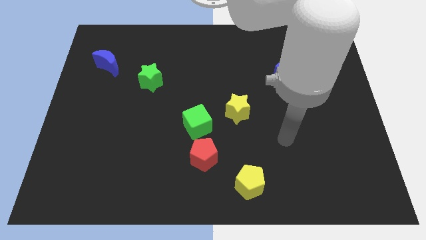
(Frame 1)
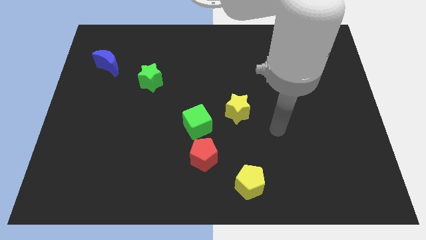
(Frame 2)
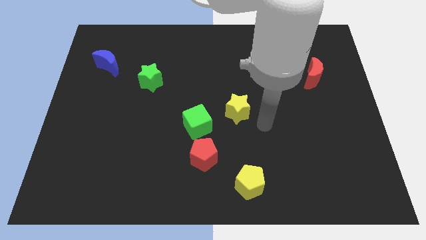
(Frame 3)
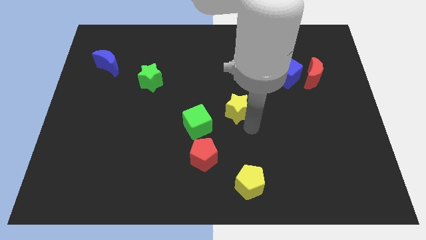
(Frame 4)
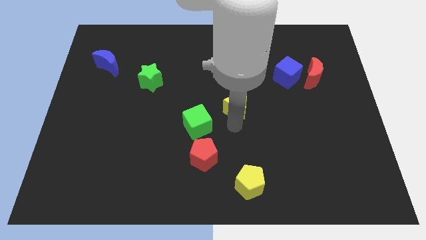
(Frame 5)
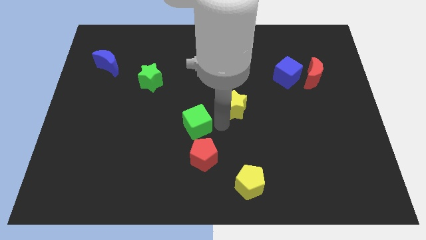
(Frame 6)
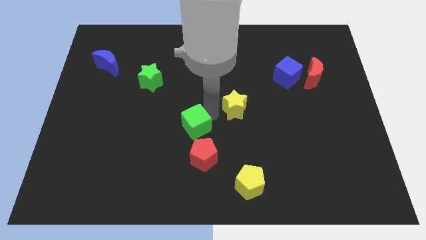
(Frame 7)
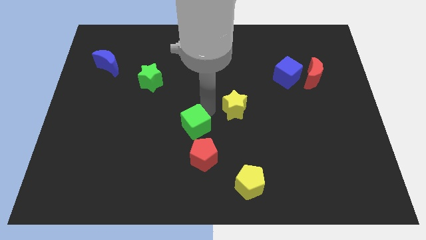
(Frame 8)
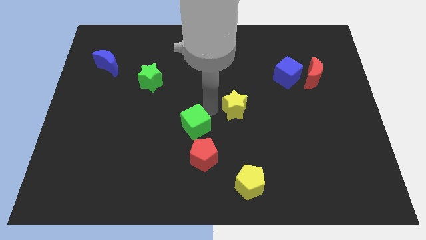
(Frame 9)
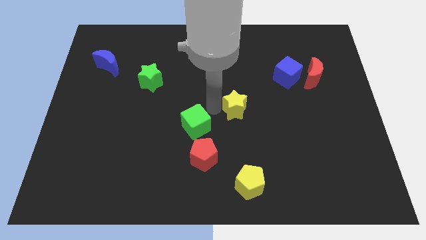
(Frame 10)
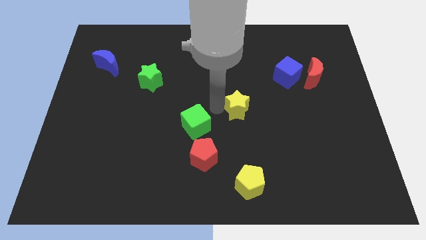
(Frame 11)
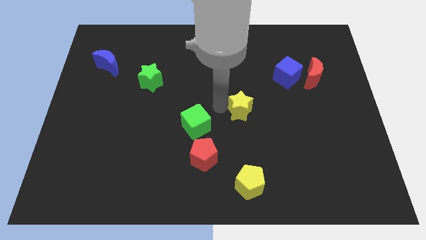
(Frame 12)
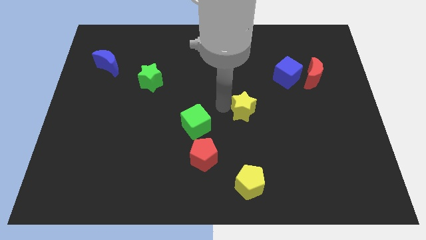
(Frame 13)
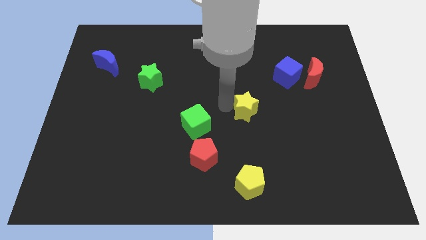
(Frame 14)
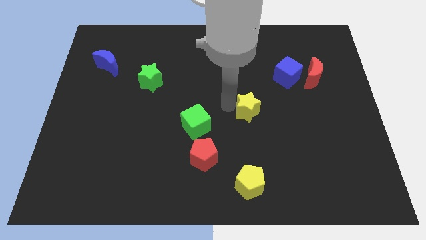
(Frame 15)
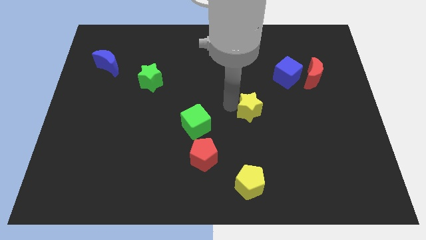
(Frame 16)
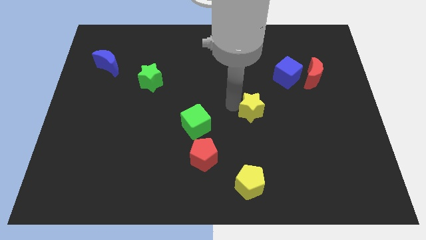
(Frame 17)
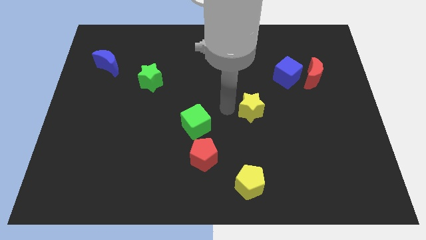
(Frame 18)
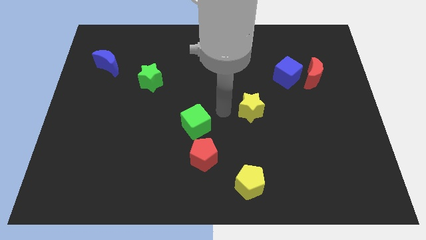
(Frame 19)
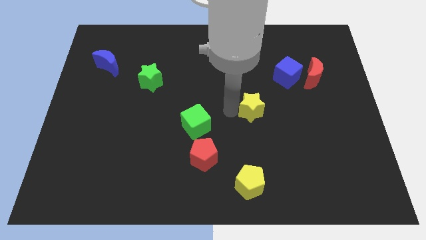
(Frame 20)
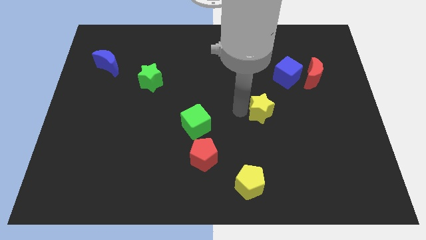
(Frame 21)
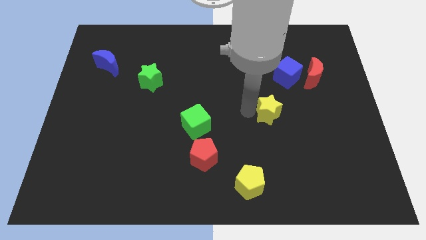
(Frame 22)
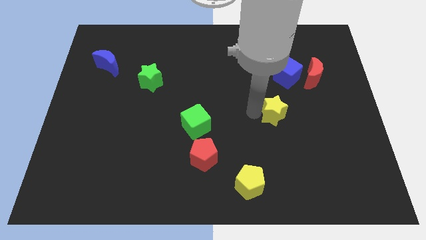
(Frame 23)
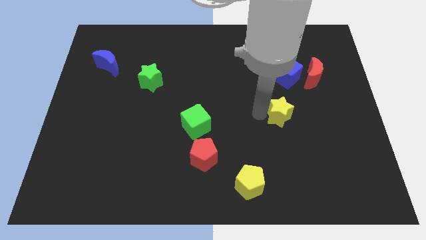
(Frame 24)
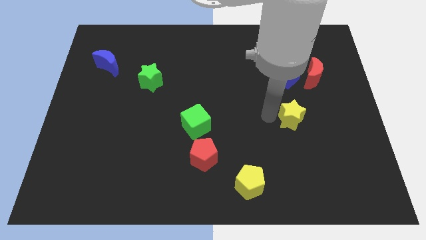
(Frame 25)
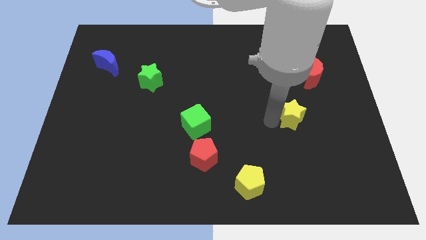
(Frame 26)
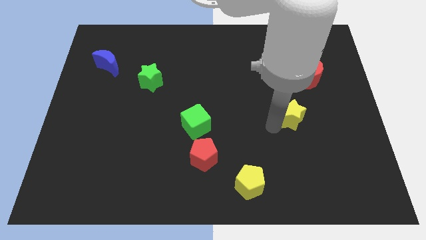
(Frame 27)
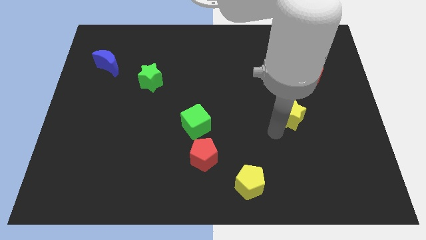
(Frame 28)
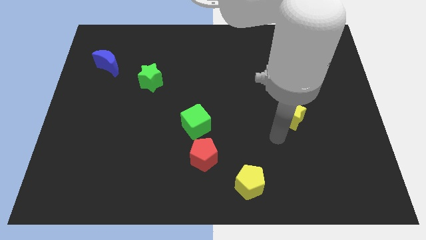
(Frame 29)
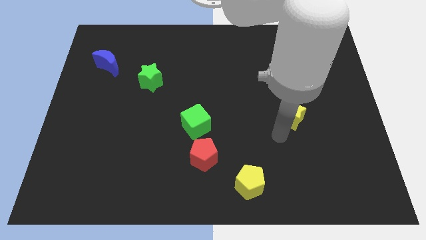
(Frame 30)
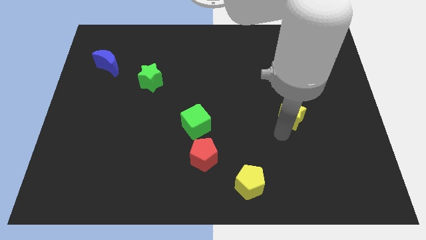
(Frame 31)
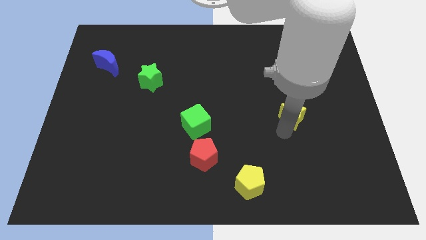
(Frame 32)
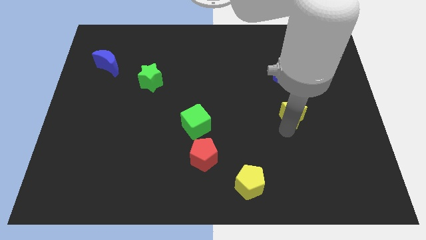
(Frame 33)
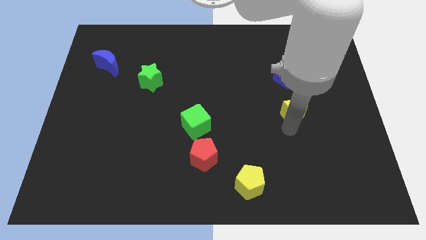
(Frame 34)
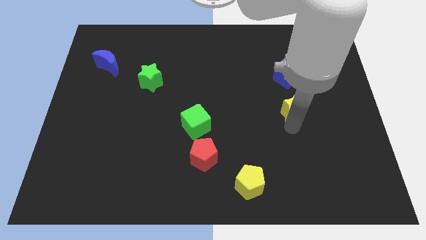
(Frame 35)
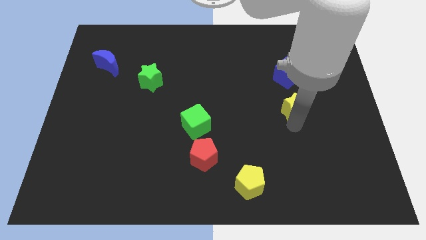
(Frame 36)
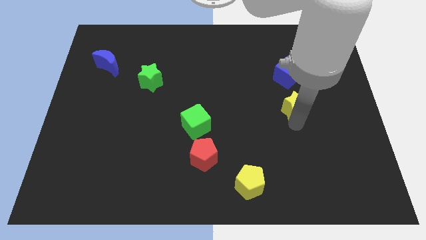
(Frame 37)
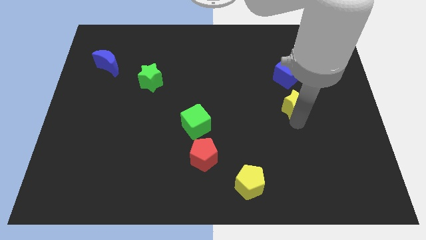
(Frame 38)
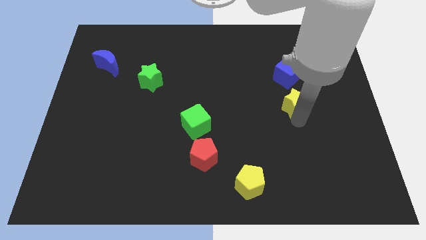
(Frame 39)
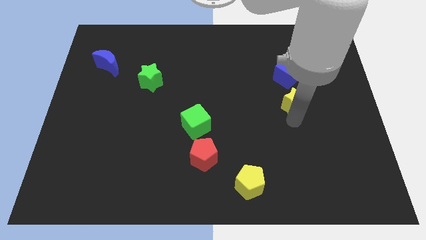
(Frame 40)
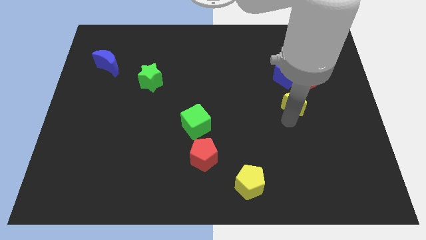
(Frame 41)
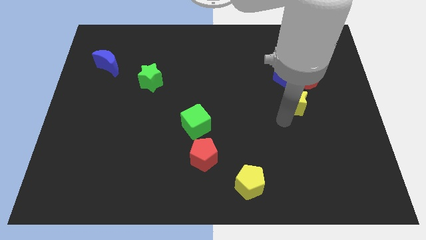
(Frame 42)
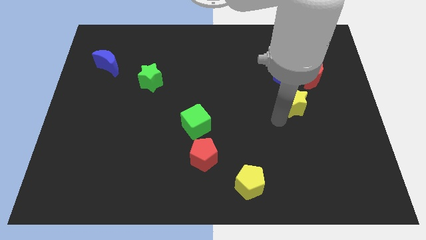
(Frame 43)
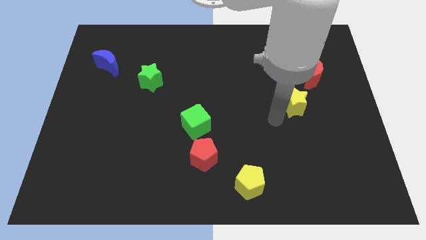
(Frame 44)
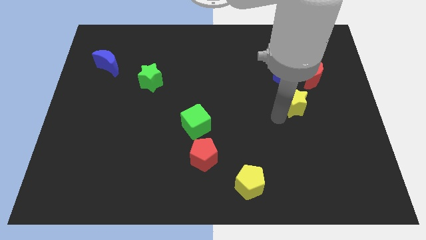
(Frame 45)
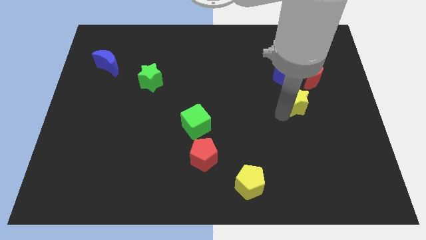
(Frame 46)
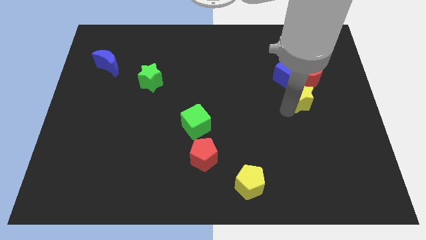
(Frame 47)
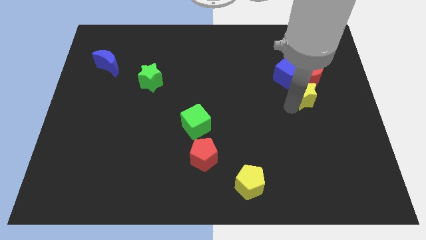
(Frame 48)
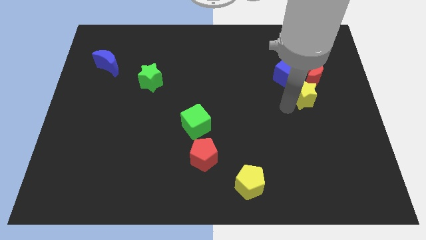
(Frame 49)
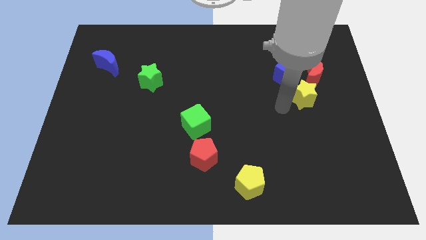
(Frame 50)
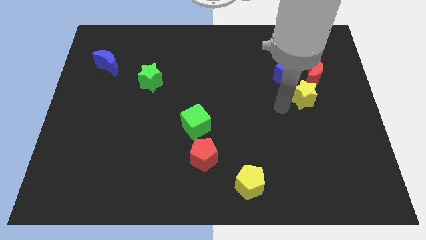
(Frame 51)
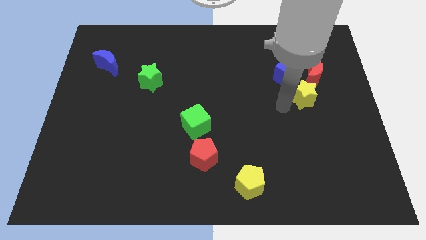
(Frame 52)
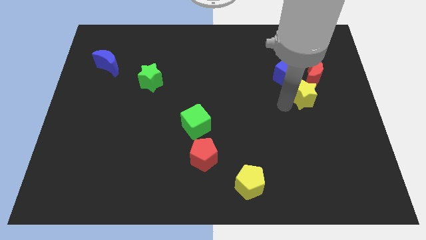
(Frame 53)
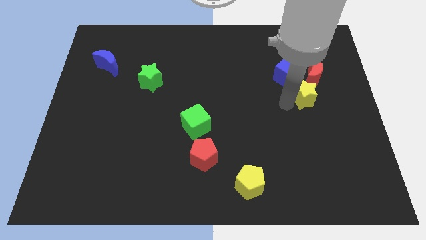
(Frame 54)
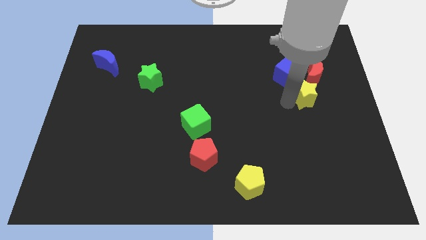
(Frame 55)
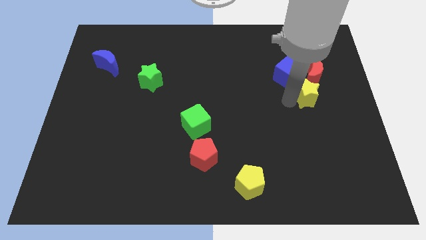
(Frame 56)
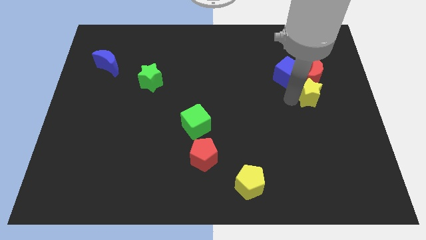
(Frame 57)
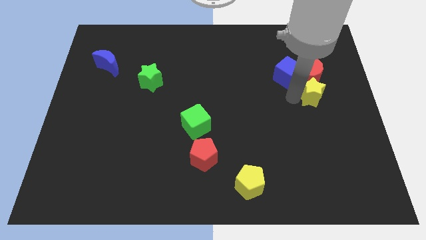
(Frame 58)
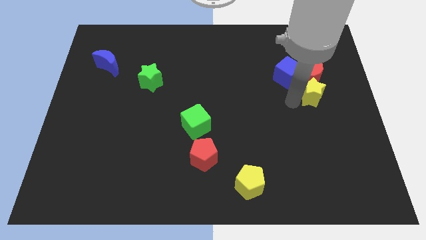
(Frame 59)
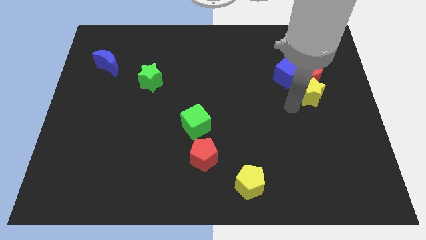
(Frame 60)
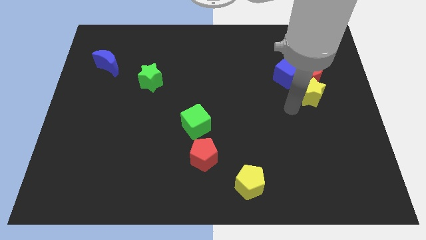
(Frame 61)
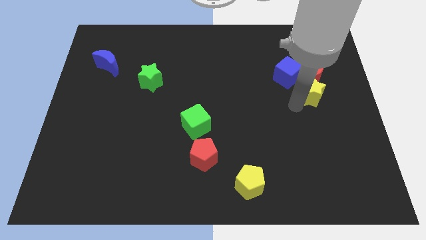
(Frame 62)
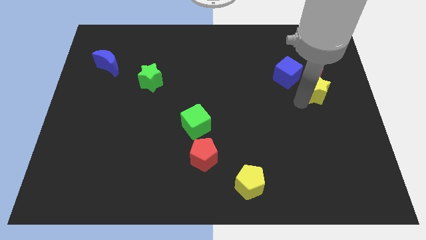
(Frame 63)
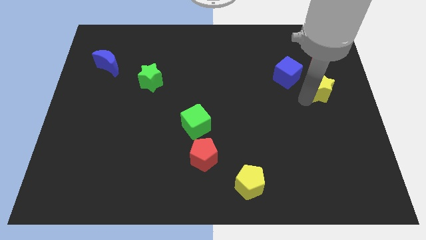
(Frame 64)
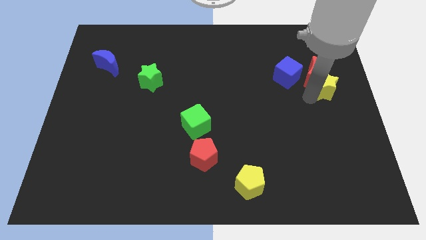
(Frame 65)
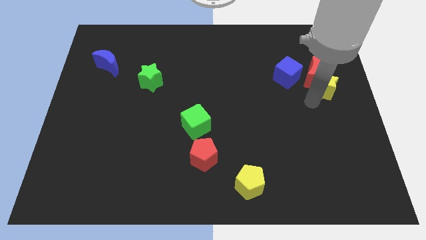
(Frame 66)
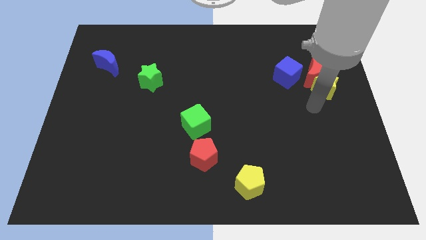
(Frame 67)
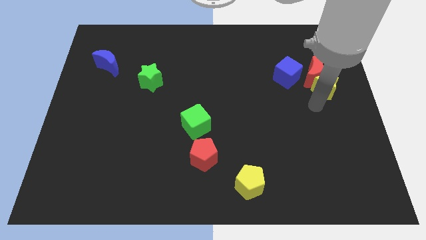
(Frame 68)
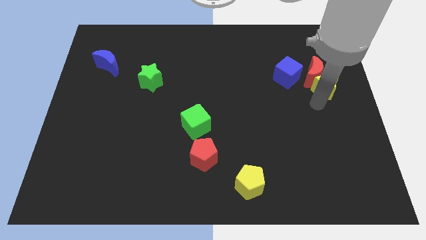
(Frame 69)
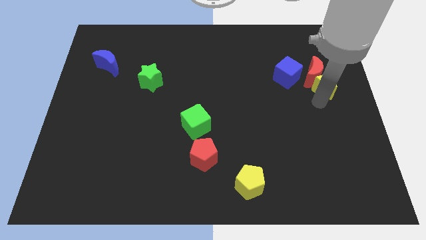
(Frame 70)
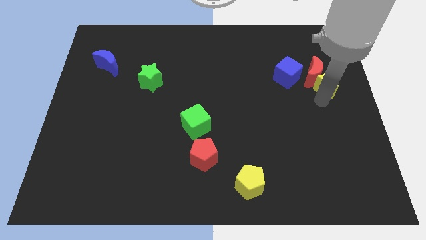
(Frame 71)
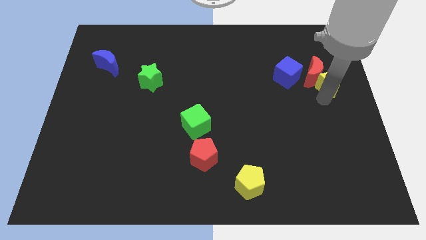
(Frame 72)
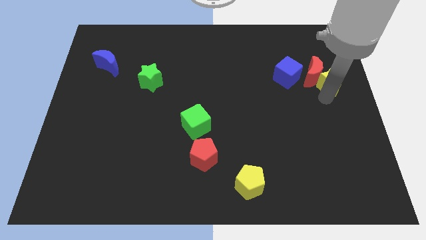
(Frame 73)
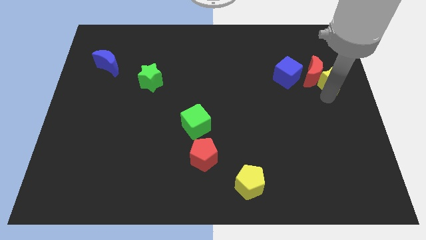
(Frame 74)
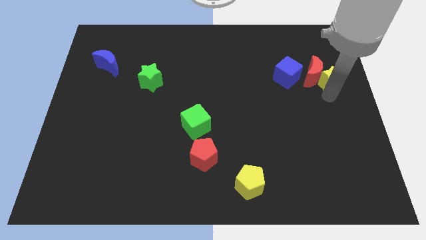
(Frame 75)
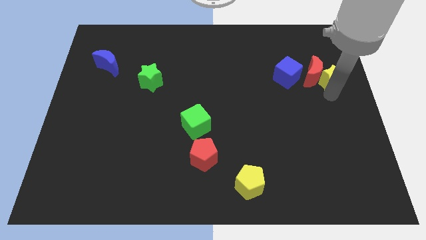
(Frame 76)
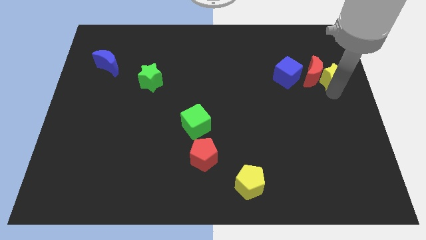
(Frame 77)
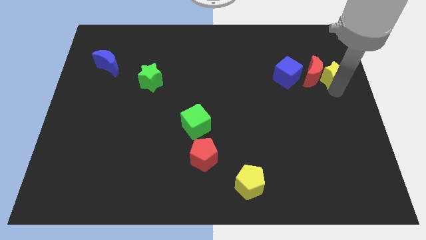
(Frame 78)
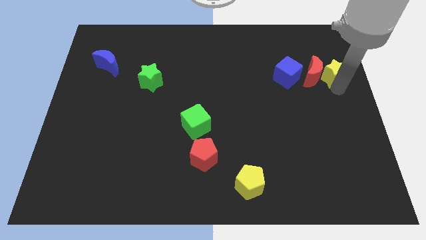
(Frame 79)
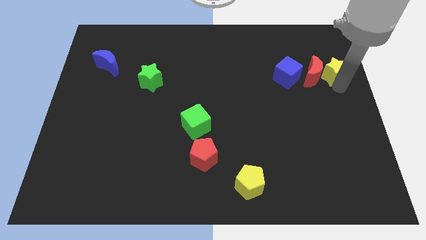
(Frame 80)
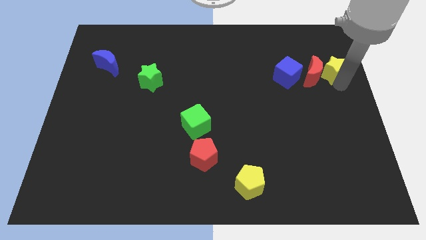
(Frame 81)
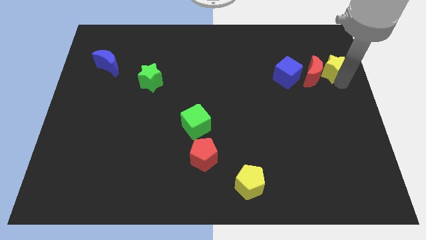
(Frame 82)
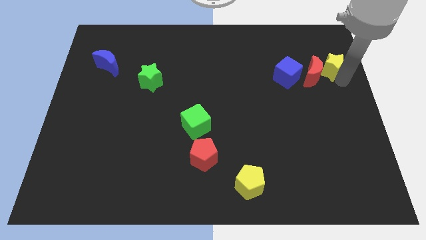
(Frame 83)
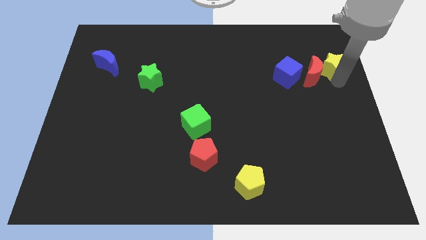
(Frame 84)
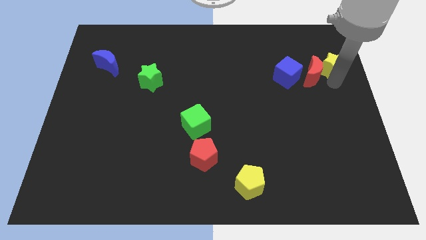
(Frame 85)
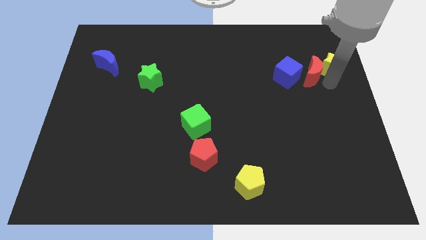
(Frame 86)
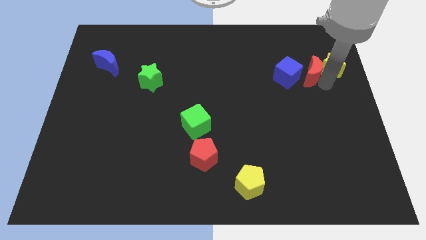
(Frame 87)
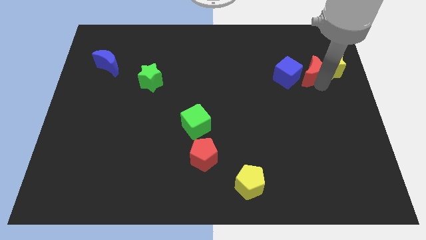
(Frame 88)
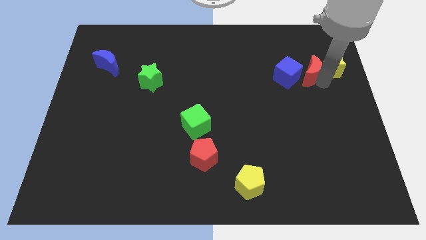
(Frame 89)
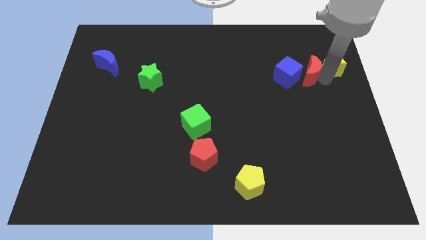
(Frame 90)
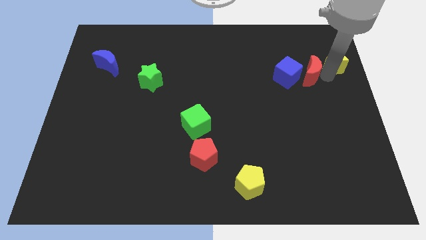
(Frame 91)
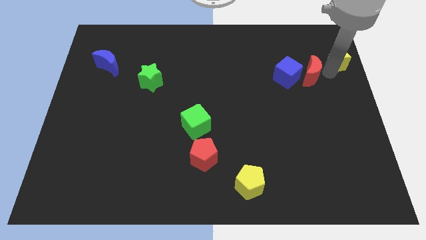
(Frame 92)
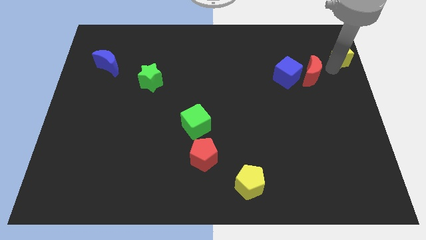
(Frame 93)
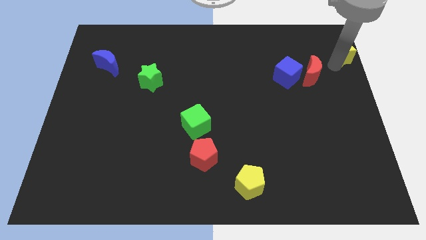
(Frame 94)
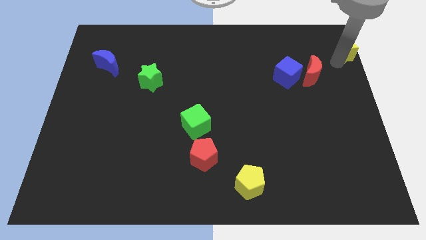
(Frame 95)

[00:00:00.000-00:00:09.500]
move the yellow star to the upper right corner
